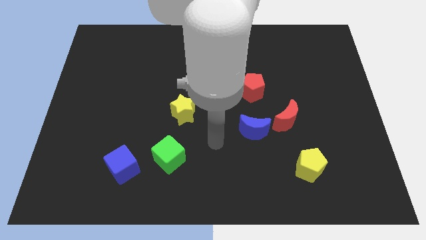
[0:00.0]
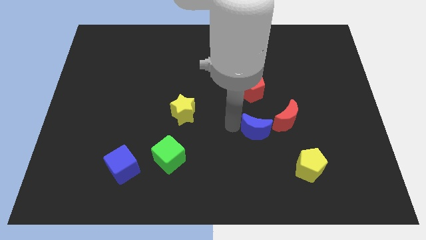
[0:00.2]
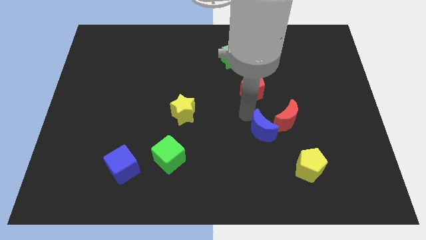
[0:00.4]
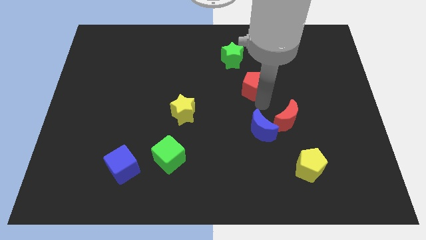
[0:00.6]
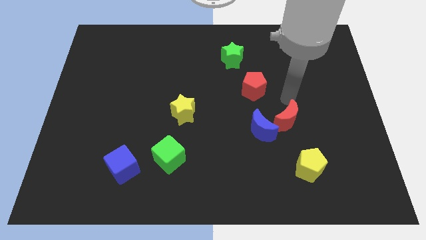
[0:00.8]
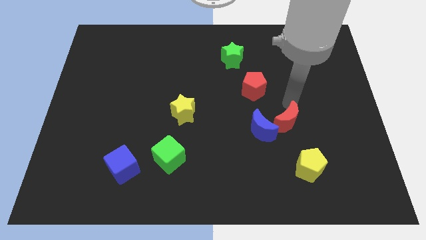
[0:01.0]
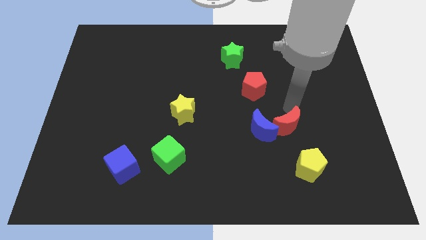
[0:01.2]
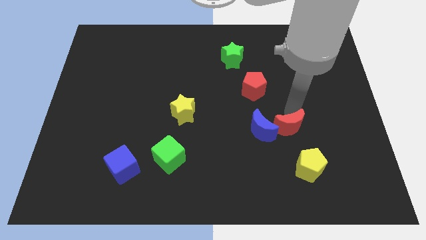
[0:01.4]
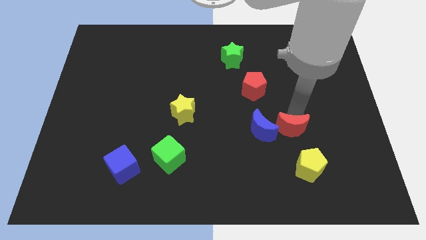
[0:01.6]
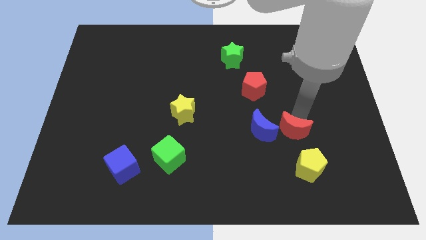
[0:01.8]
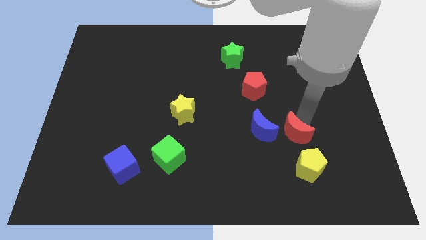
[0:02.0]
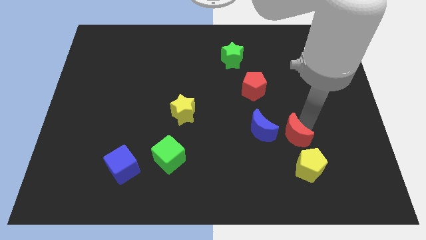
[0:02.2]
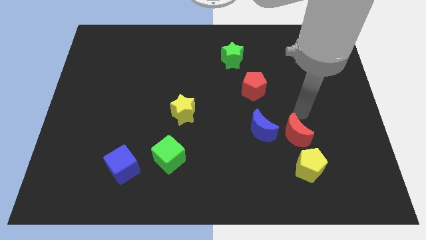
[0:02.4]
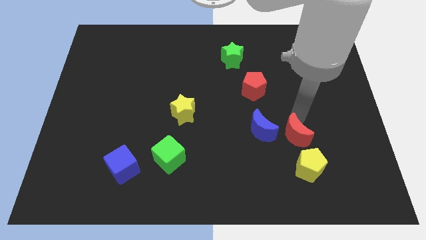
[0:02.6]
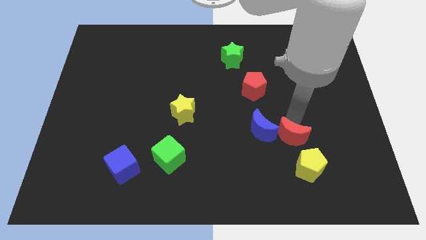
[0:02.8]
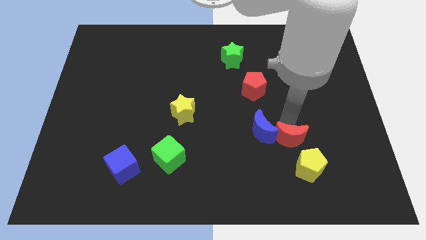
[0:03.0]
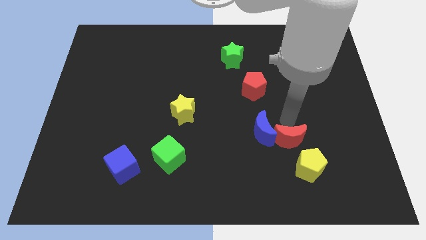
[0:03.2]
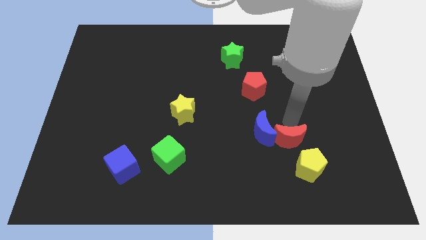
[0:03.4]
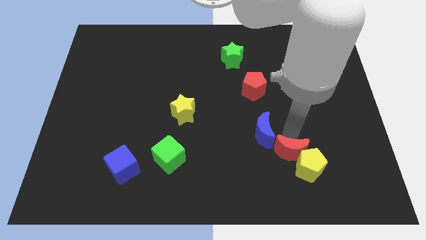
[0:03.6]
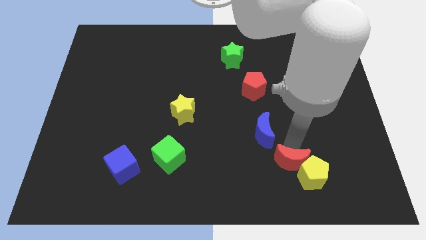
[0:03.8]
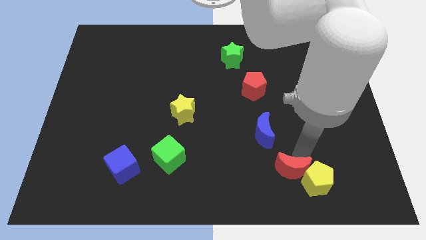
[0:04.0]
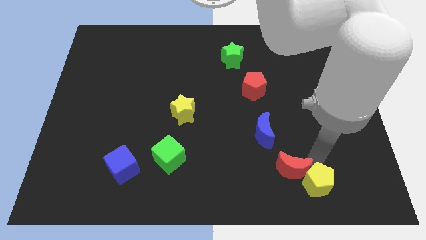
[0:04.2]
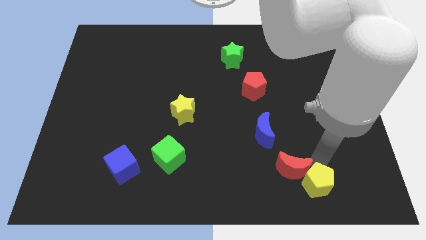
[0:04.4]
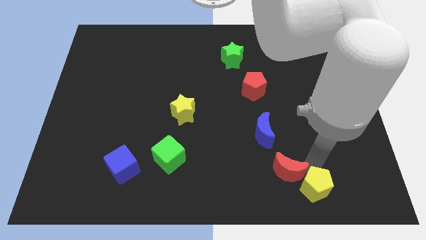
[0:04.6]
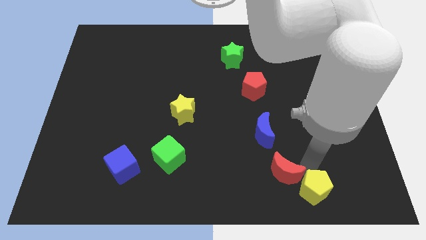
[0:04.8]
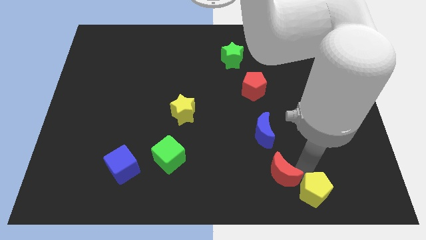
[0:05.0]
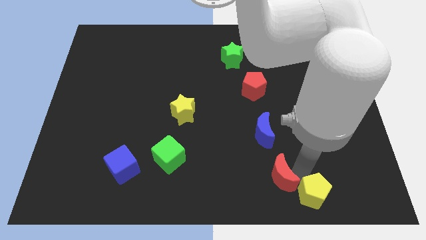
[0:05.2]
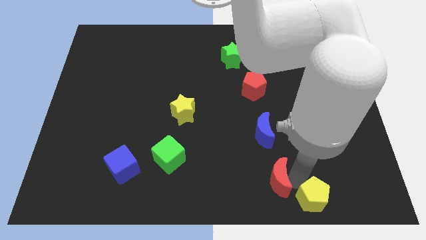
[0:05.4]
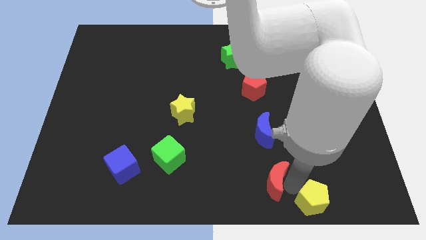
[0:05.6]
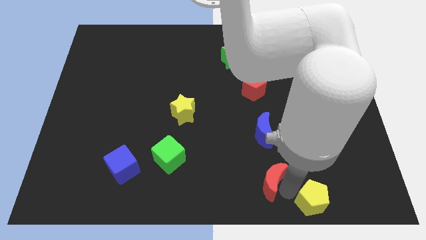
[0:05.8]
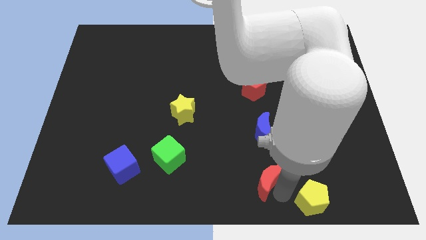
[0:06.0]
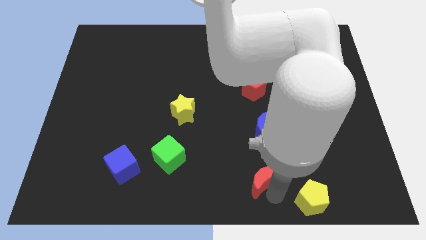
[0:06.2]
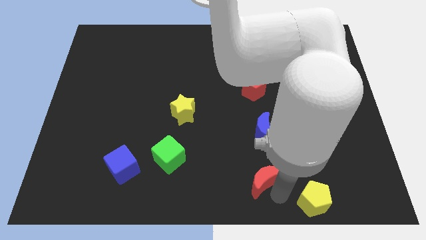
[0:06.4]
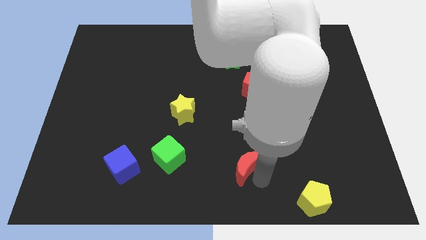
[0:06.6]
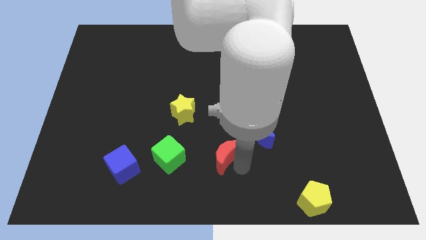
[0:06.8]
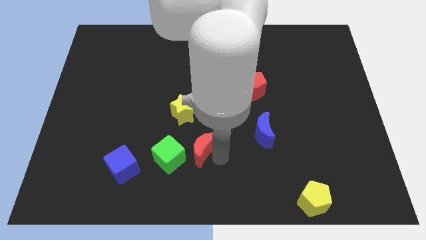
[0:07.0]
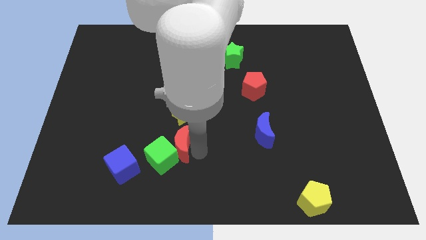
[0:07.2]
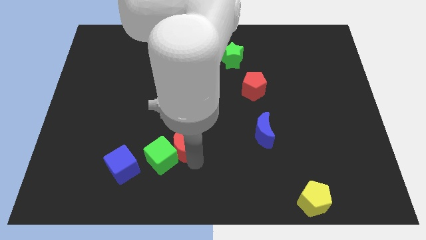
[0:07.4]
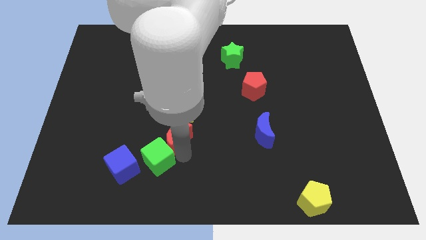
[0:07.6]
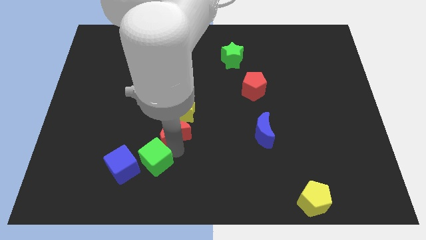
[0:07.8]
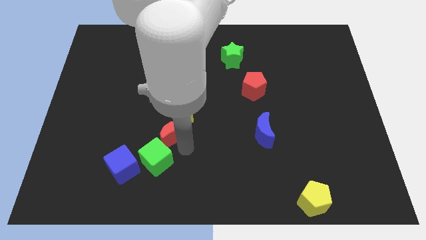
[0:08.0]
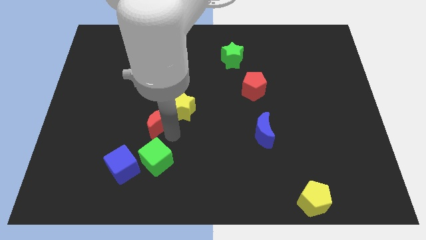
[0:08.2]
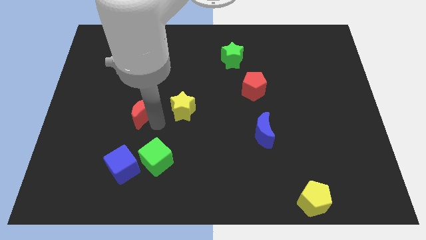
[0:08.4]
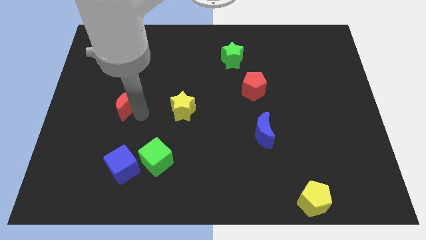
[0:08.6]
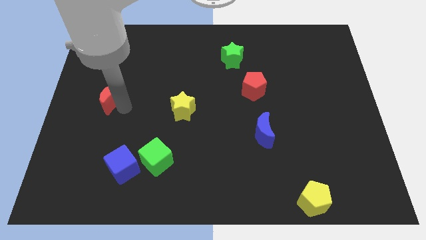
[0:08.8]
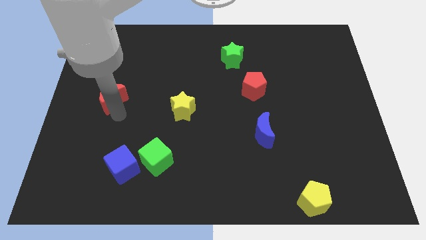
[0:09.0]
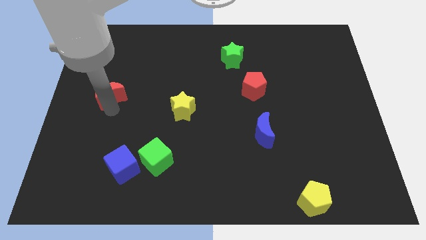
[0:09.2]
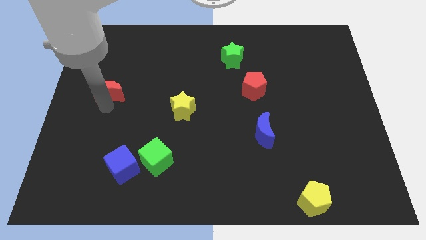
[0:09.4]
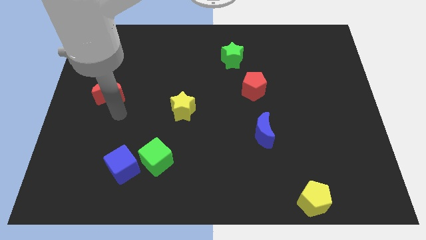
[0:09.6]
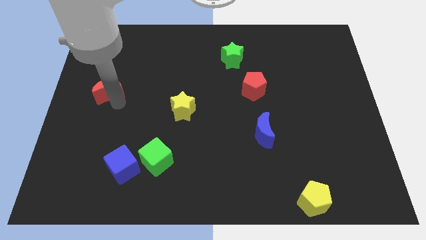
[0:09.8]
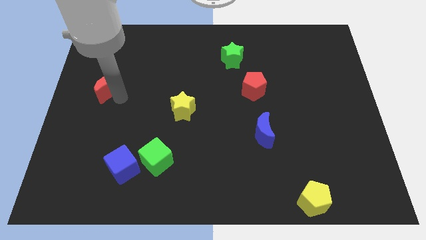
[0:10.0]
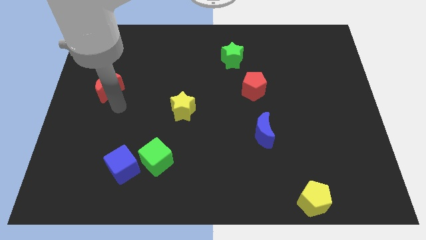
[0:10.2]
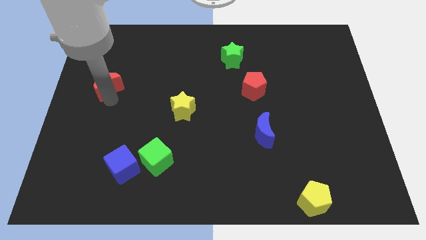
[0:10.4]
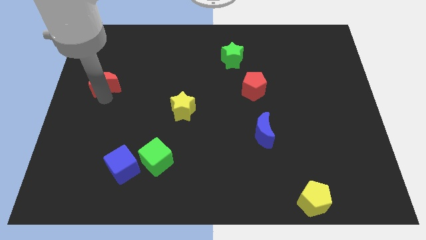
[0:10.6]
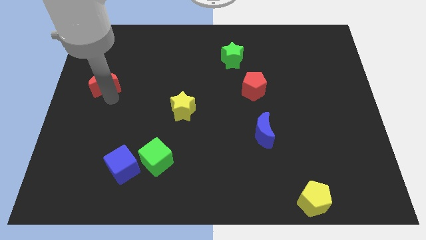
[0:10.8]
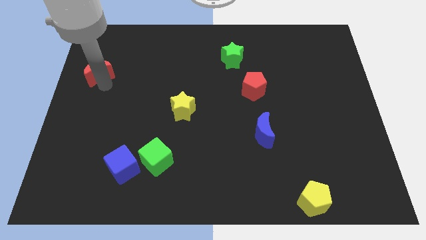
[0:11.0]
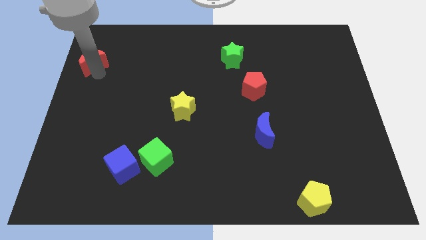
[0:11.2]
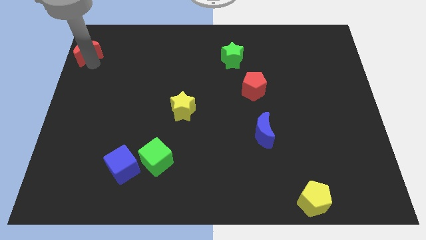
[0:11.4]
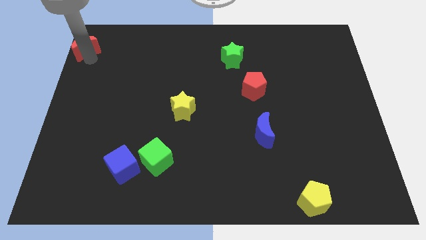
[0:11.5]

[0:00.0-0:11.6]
put the red moon to the upper left corner

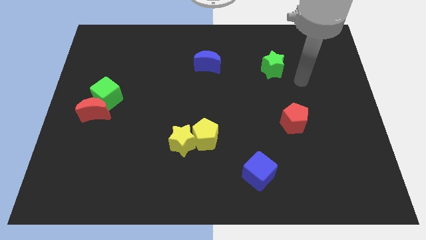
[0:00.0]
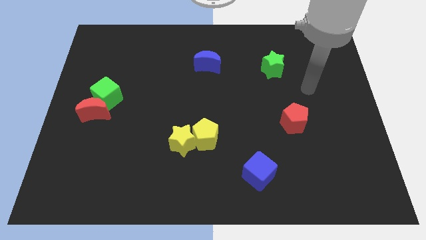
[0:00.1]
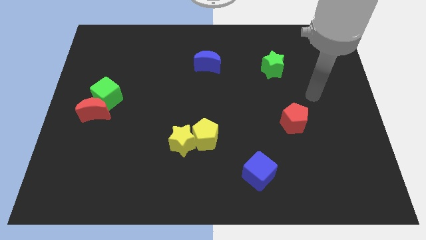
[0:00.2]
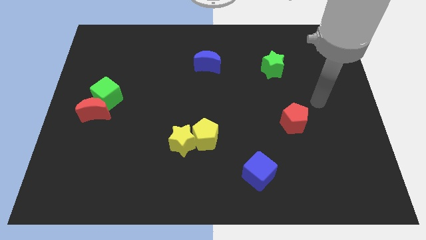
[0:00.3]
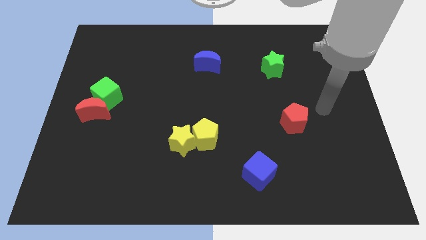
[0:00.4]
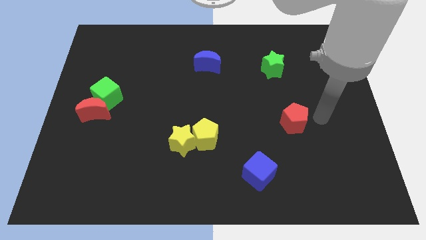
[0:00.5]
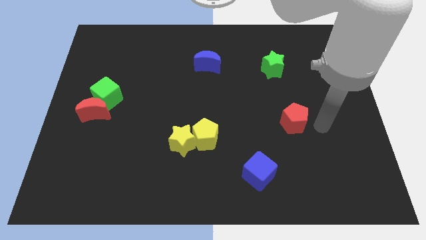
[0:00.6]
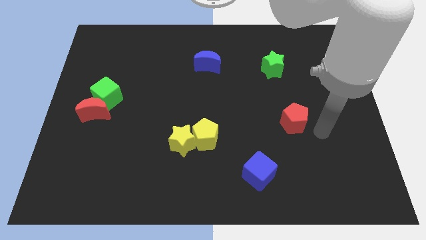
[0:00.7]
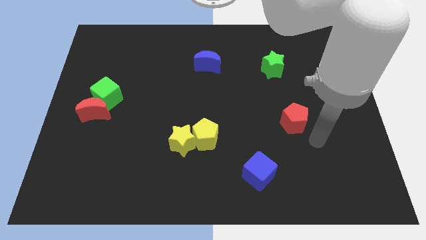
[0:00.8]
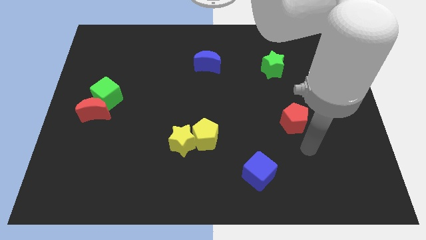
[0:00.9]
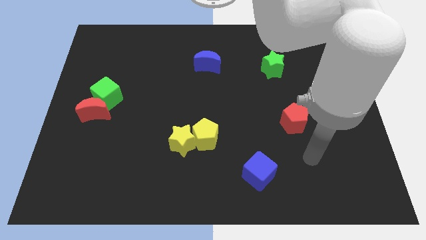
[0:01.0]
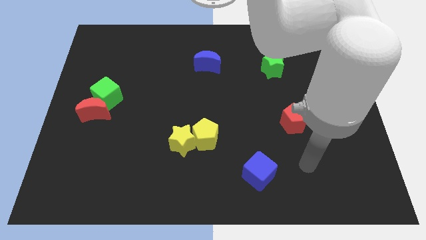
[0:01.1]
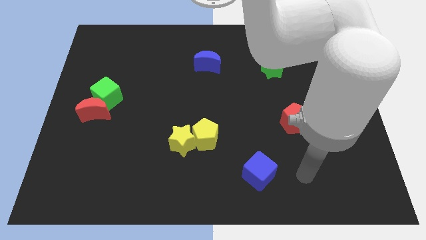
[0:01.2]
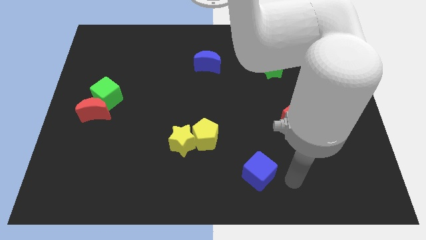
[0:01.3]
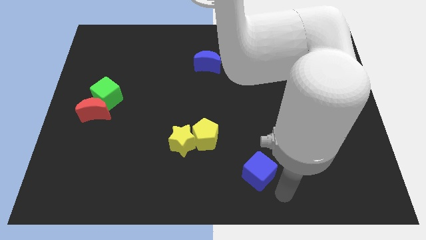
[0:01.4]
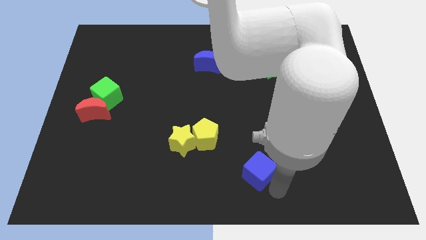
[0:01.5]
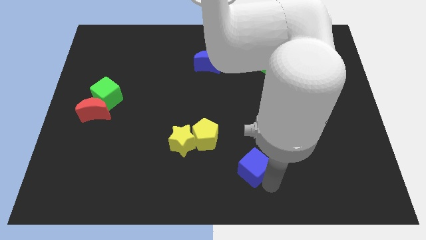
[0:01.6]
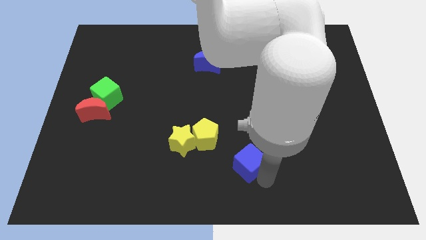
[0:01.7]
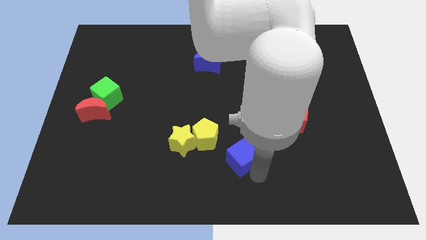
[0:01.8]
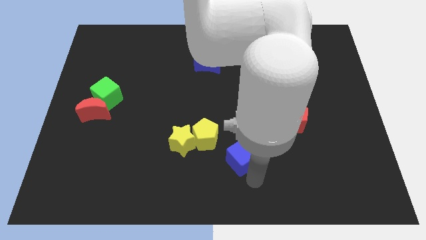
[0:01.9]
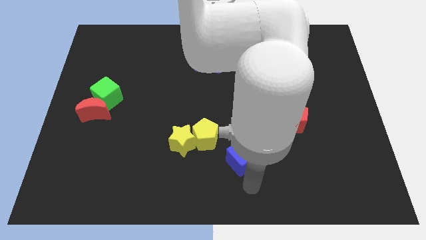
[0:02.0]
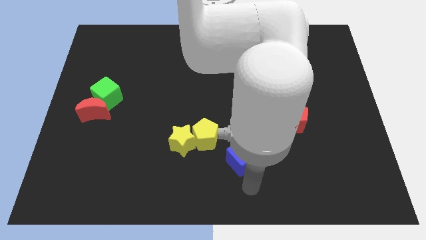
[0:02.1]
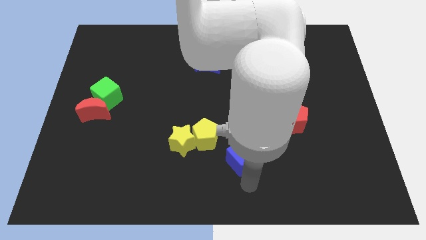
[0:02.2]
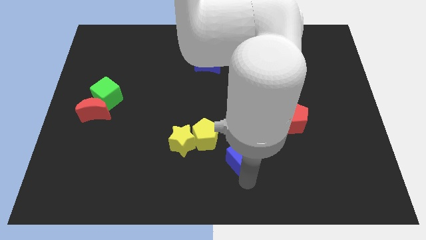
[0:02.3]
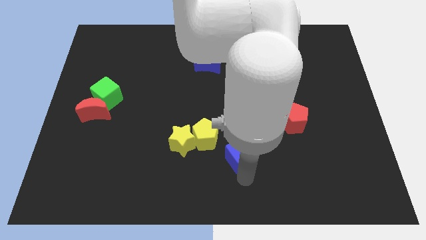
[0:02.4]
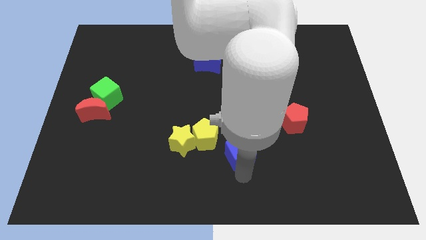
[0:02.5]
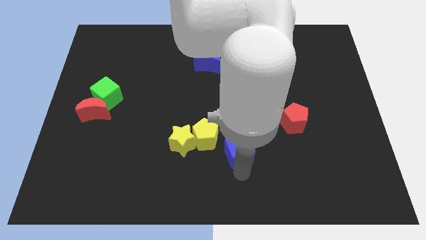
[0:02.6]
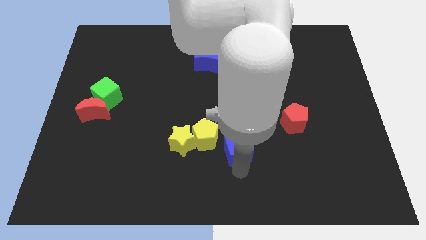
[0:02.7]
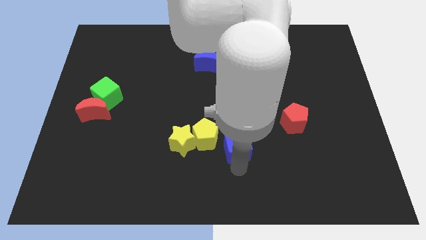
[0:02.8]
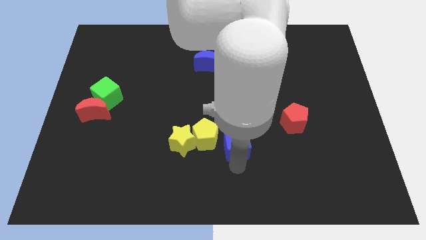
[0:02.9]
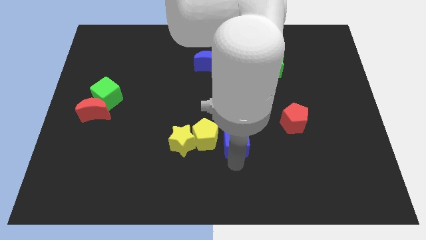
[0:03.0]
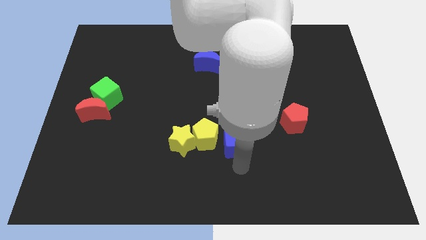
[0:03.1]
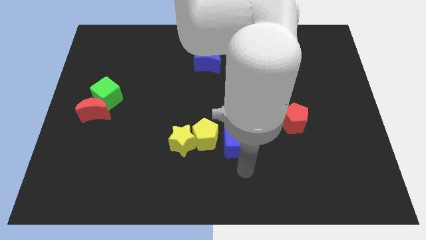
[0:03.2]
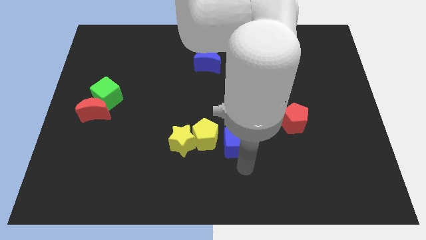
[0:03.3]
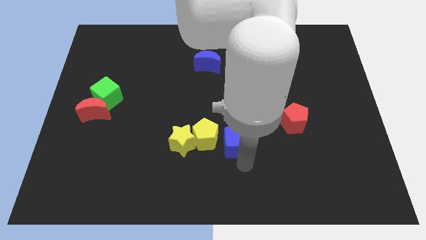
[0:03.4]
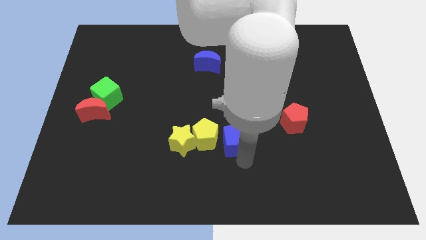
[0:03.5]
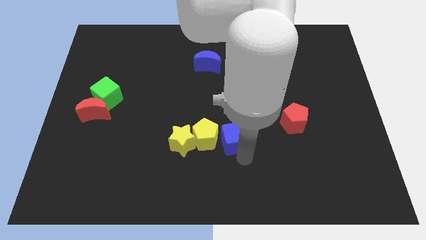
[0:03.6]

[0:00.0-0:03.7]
slide the blue cube to the middle
